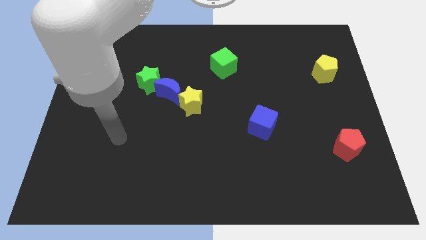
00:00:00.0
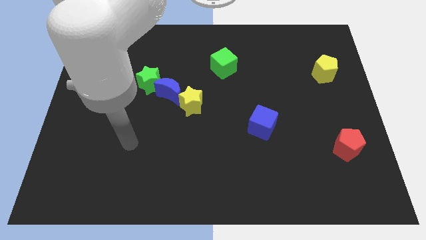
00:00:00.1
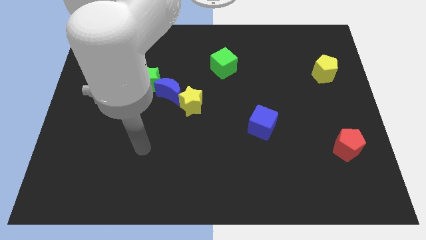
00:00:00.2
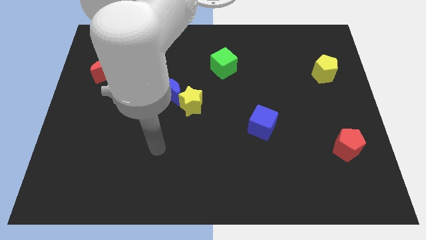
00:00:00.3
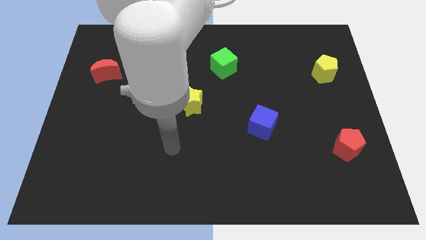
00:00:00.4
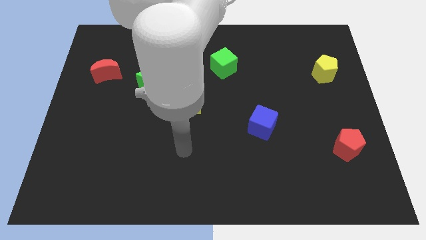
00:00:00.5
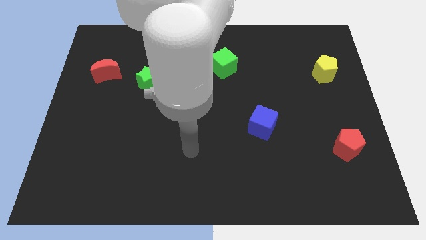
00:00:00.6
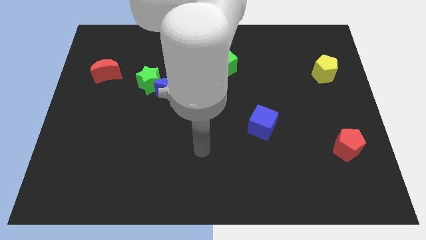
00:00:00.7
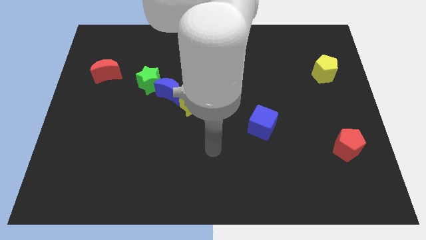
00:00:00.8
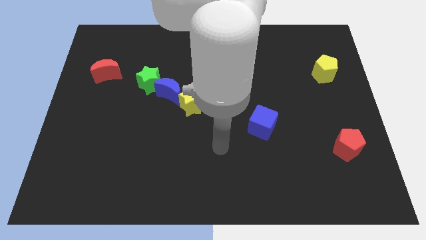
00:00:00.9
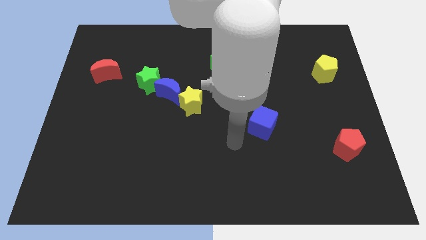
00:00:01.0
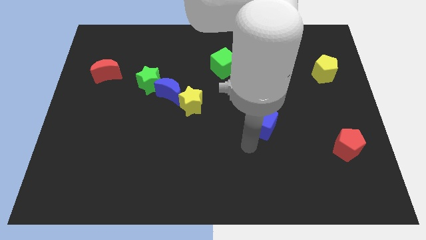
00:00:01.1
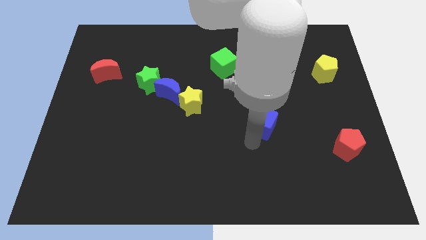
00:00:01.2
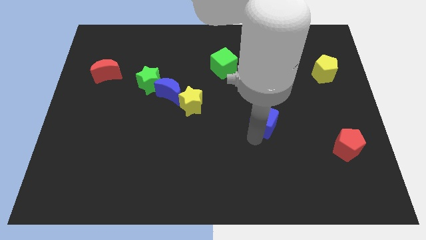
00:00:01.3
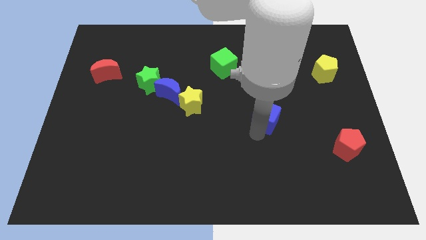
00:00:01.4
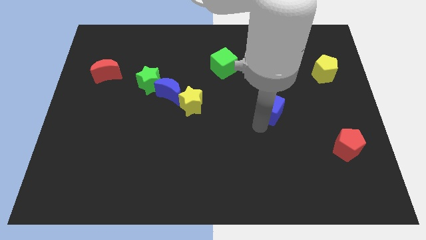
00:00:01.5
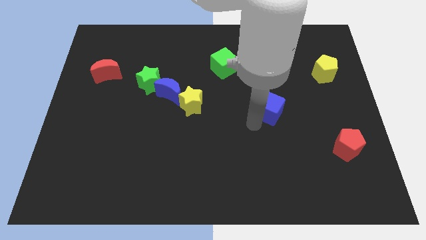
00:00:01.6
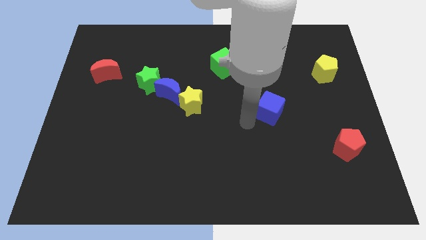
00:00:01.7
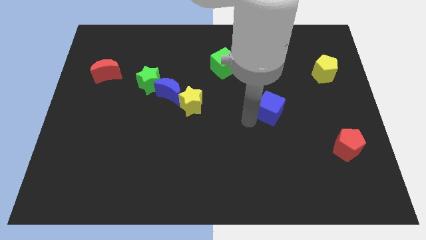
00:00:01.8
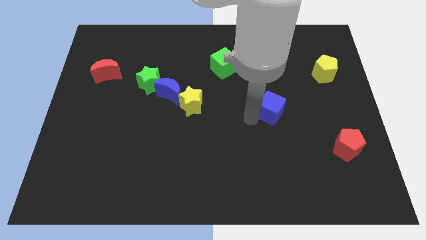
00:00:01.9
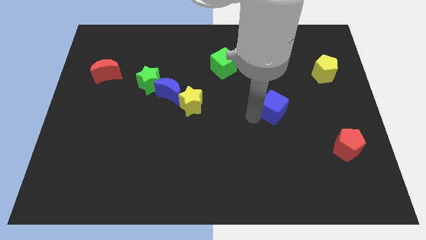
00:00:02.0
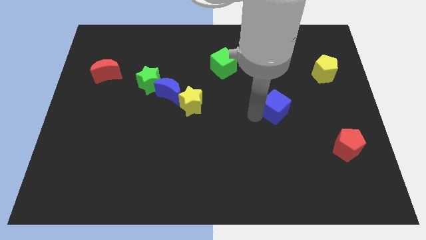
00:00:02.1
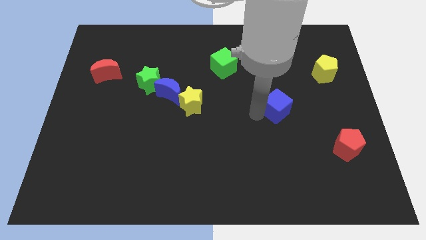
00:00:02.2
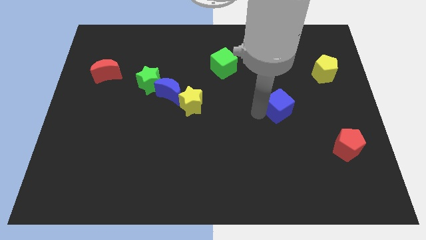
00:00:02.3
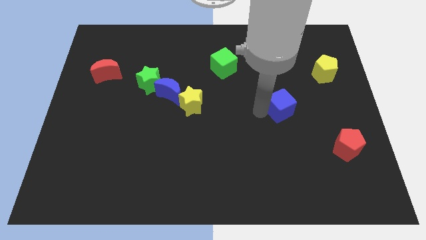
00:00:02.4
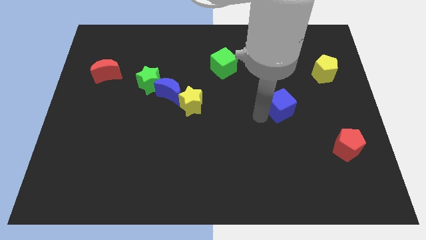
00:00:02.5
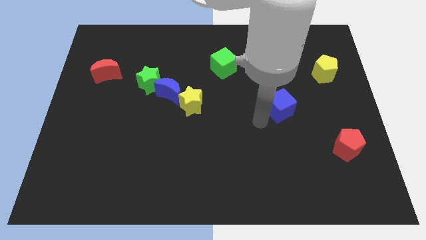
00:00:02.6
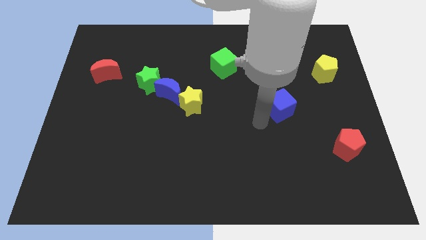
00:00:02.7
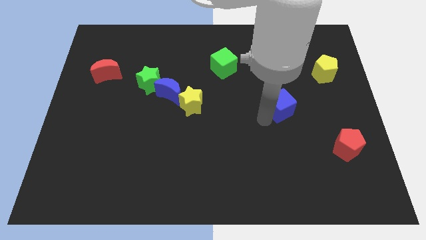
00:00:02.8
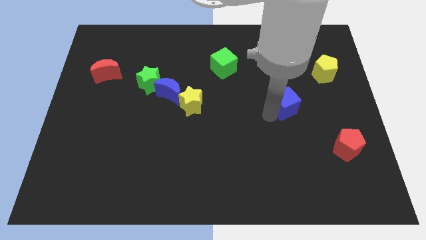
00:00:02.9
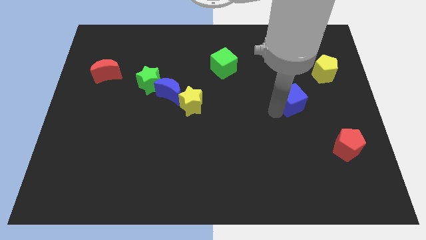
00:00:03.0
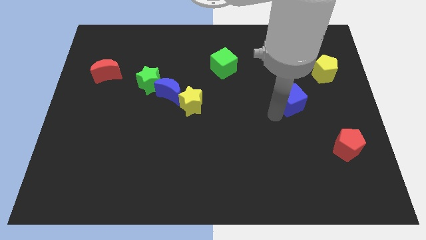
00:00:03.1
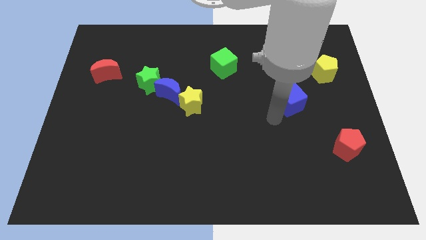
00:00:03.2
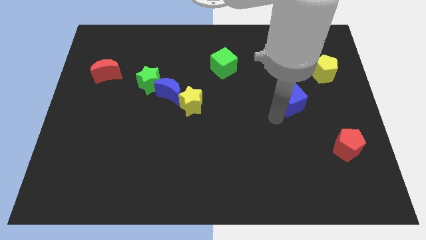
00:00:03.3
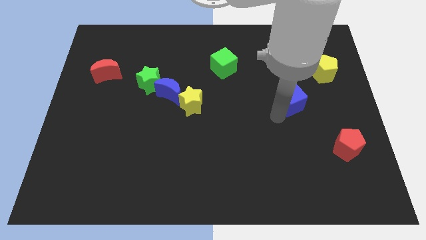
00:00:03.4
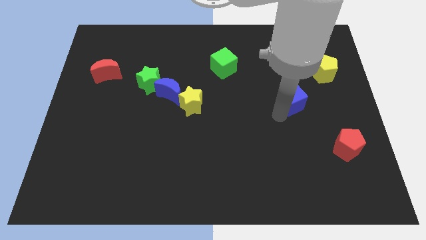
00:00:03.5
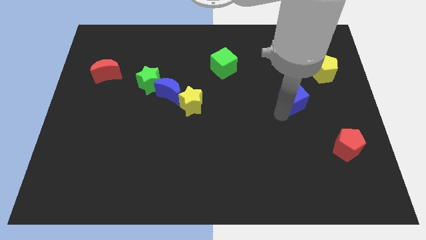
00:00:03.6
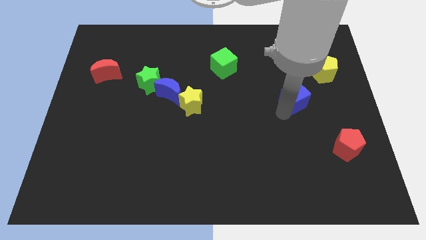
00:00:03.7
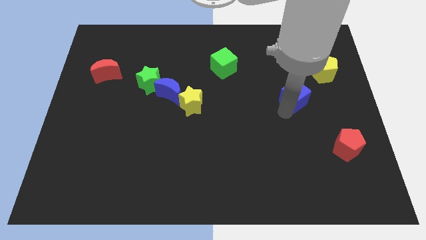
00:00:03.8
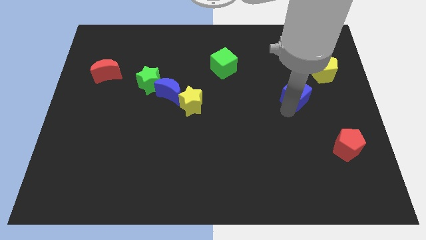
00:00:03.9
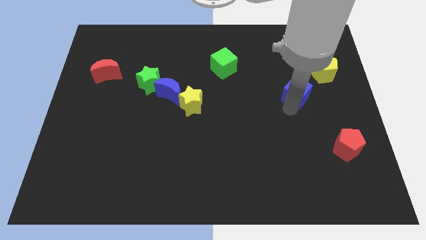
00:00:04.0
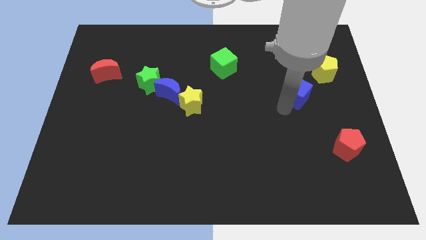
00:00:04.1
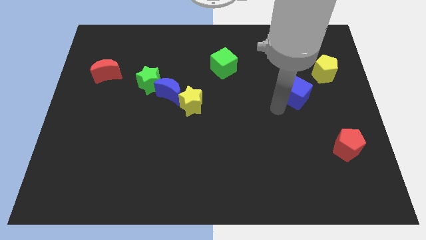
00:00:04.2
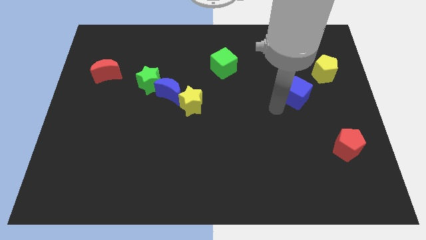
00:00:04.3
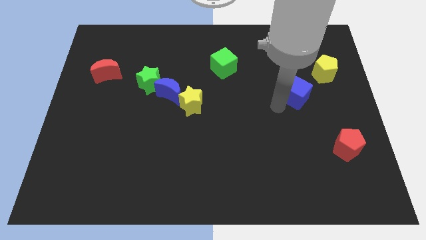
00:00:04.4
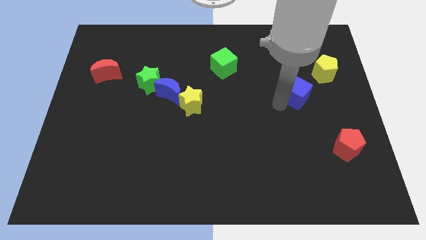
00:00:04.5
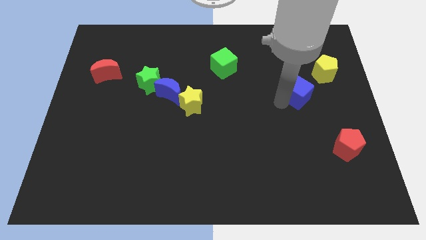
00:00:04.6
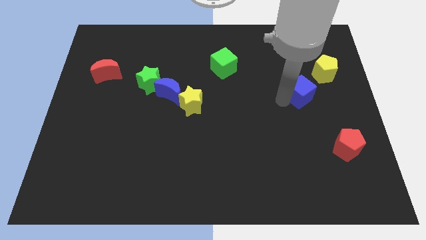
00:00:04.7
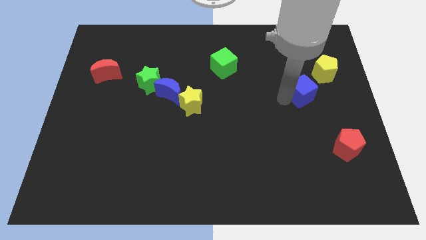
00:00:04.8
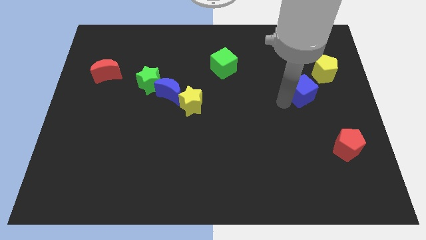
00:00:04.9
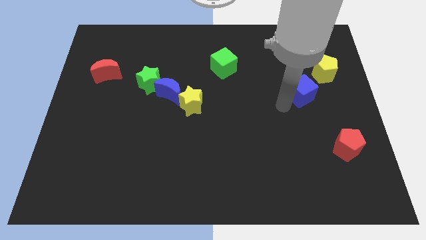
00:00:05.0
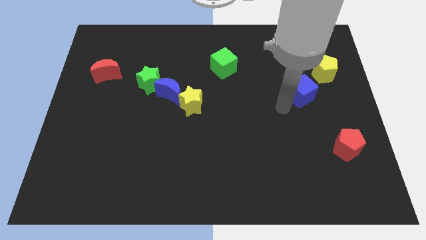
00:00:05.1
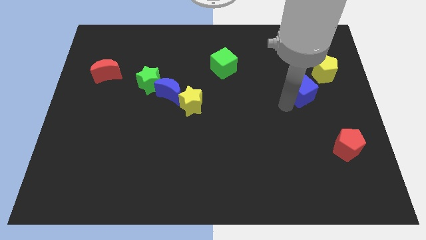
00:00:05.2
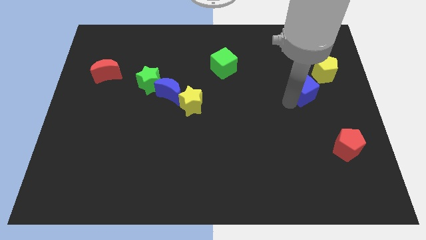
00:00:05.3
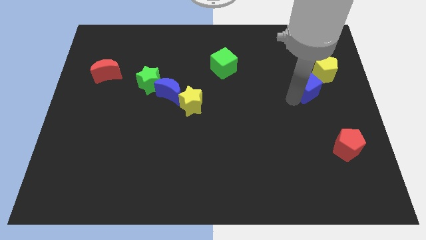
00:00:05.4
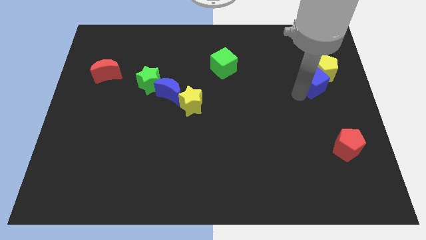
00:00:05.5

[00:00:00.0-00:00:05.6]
push the blue cube towards the yellow pentagon

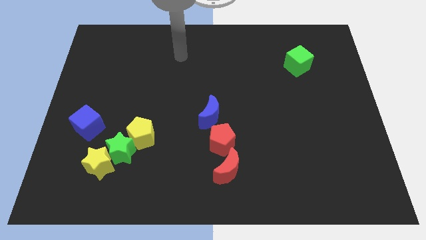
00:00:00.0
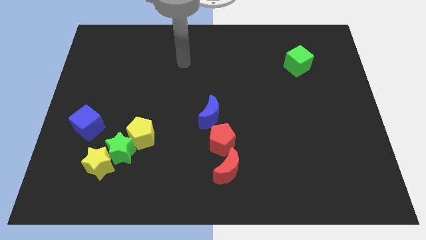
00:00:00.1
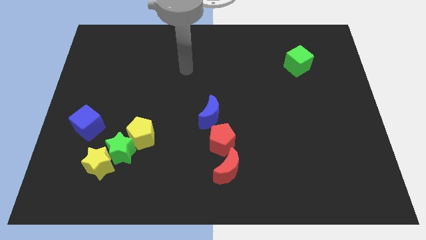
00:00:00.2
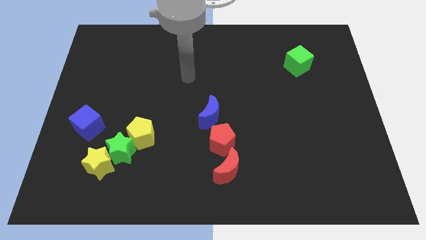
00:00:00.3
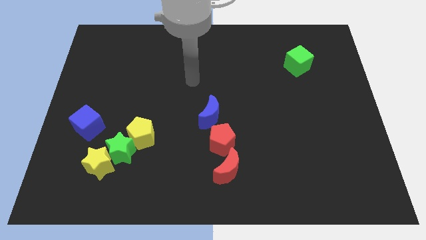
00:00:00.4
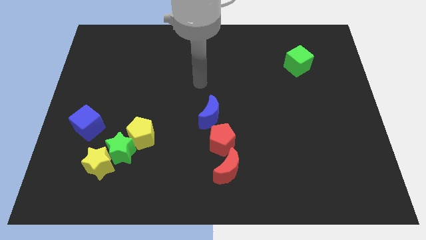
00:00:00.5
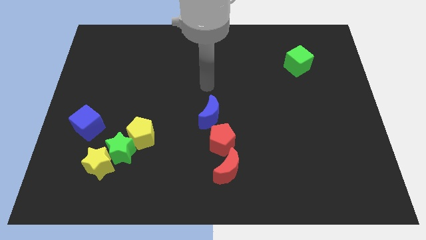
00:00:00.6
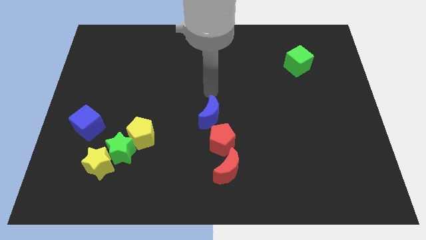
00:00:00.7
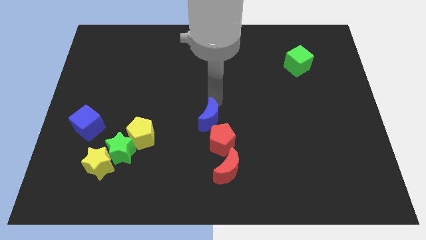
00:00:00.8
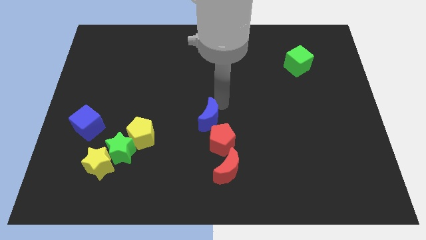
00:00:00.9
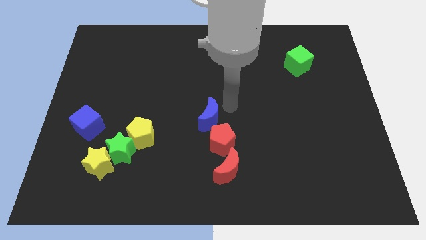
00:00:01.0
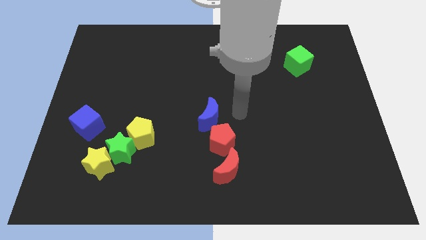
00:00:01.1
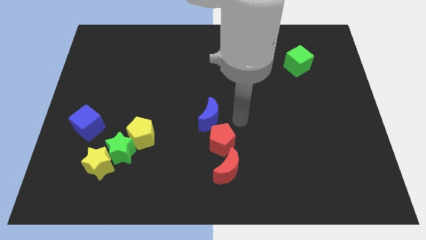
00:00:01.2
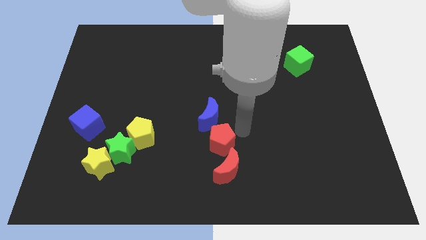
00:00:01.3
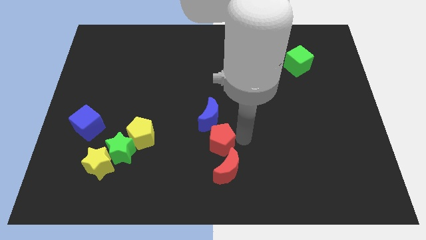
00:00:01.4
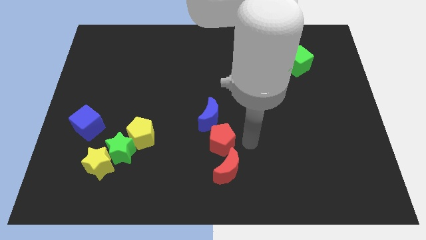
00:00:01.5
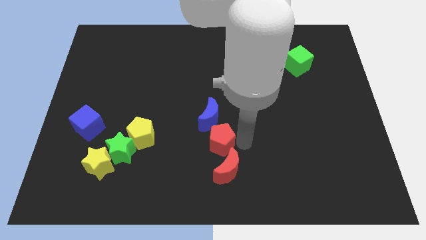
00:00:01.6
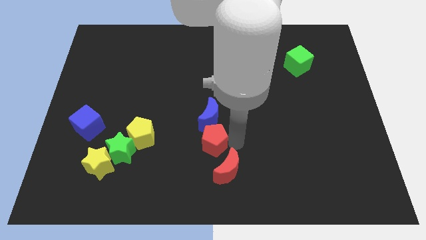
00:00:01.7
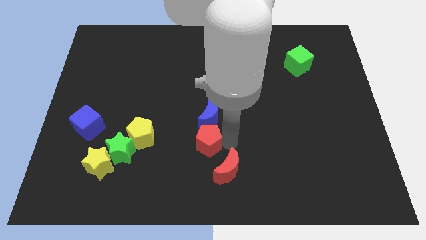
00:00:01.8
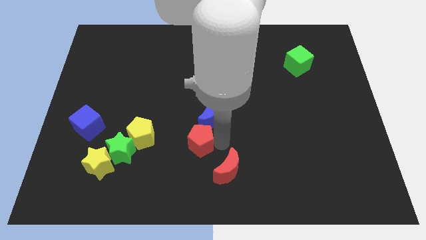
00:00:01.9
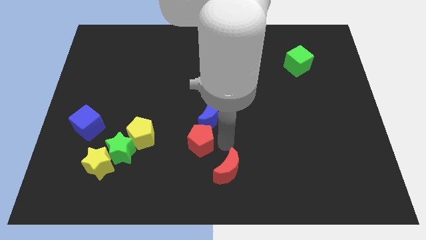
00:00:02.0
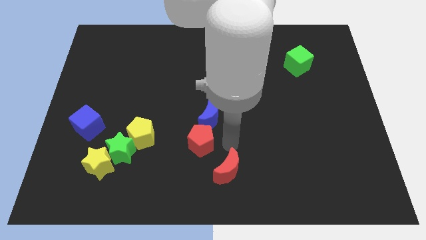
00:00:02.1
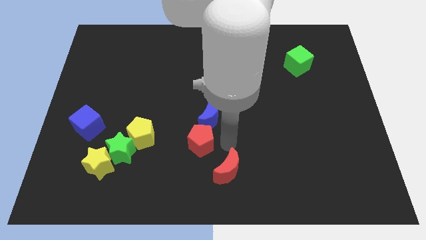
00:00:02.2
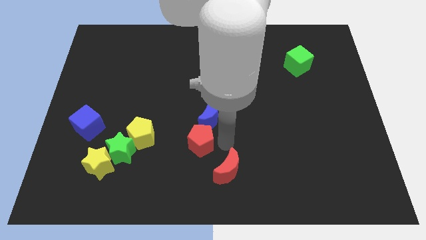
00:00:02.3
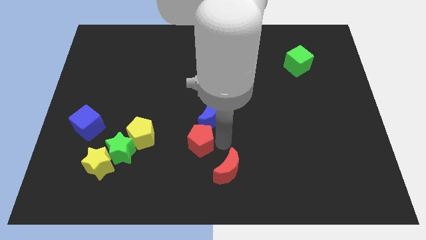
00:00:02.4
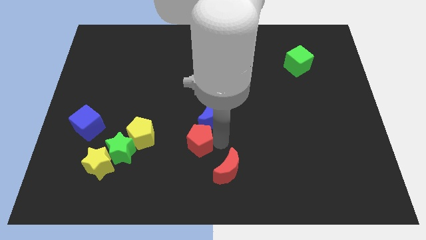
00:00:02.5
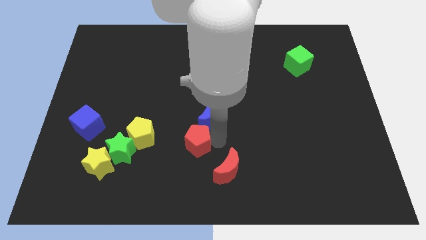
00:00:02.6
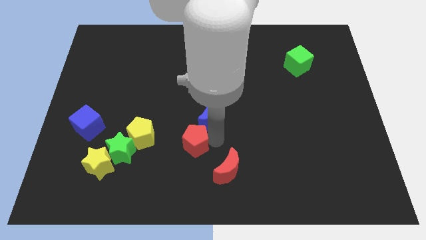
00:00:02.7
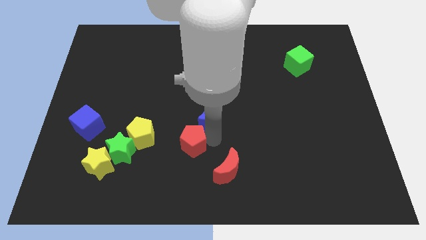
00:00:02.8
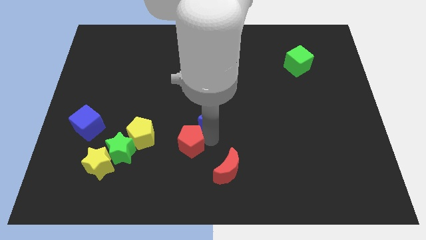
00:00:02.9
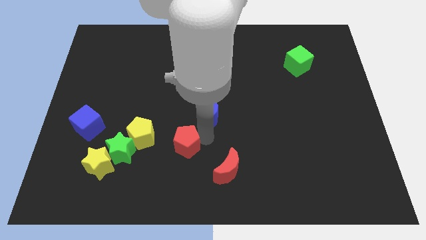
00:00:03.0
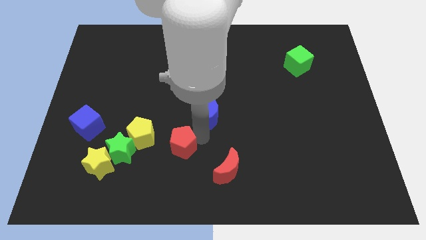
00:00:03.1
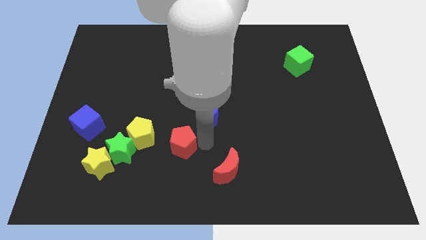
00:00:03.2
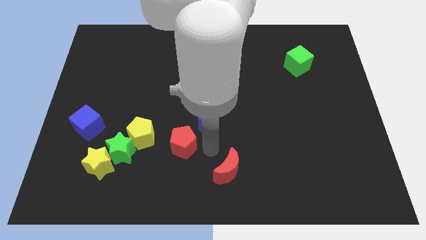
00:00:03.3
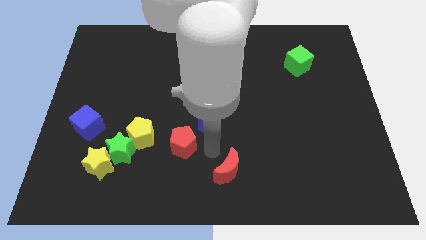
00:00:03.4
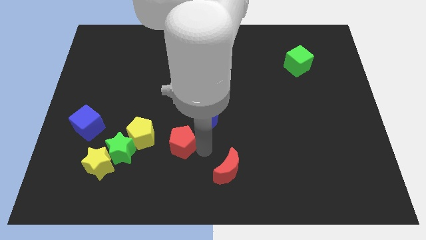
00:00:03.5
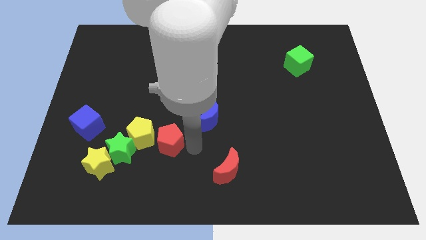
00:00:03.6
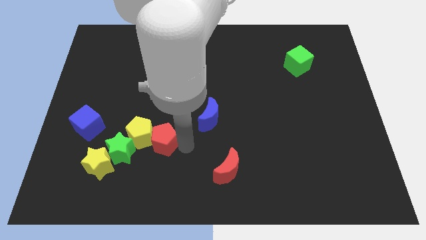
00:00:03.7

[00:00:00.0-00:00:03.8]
put the red pentagon to the yellow pentagon
